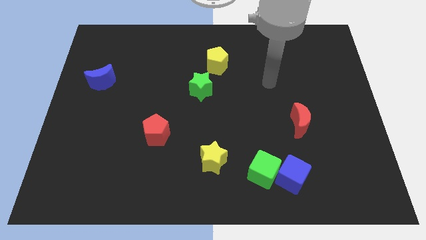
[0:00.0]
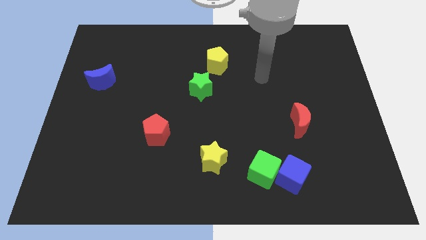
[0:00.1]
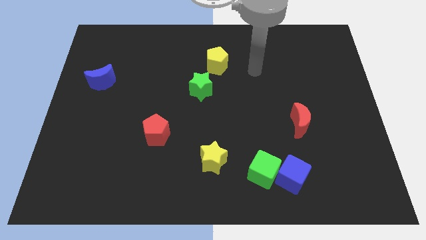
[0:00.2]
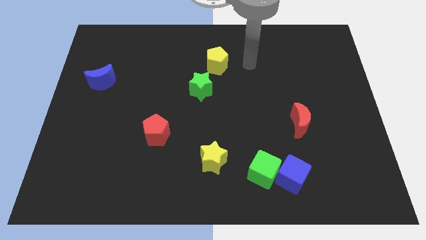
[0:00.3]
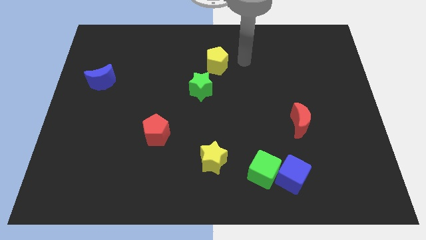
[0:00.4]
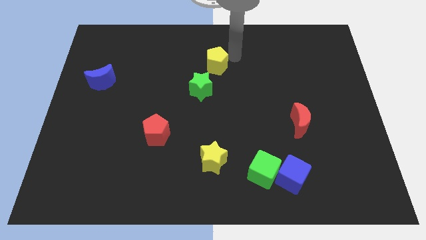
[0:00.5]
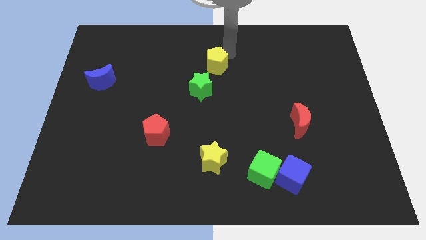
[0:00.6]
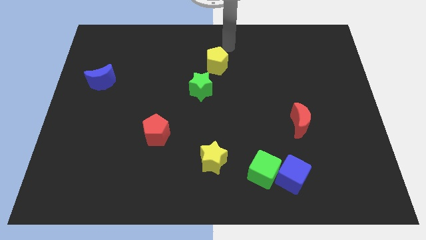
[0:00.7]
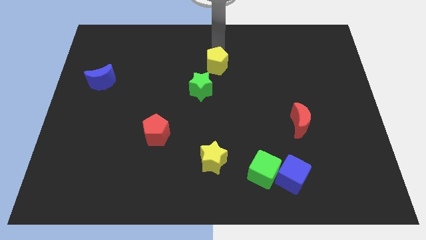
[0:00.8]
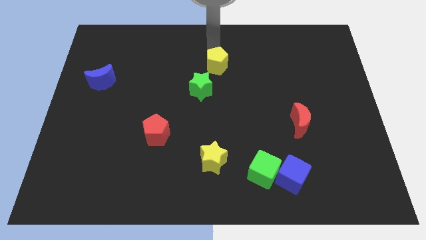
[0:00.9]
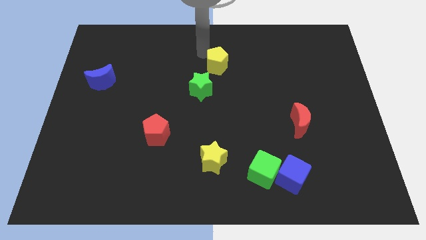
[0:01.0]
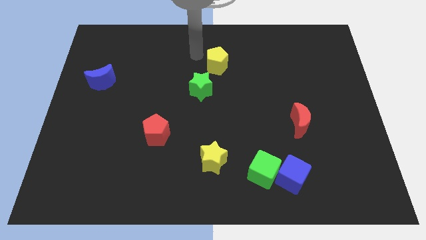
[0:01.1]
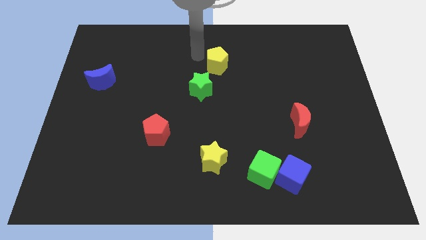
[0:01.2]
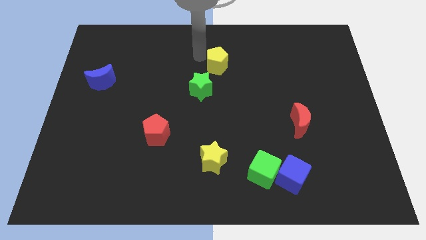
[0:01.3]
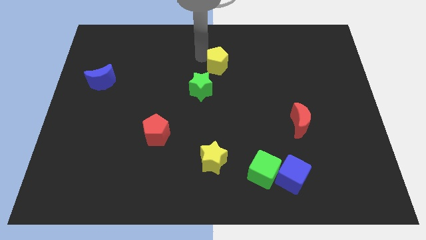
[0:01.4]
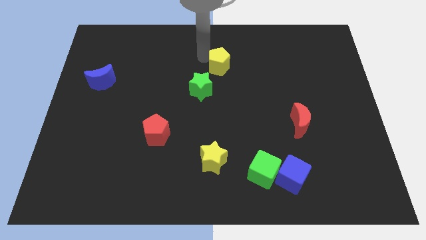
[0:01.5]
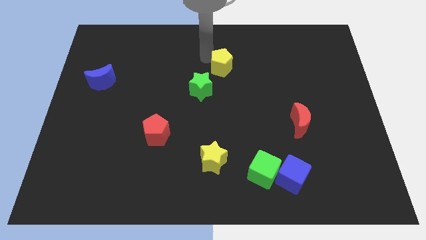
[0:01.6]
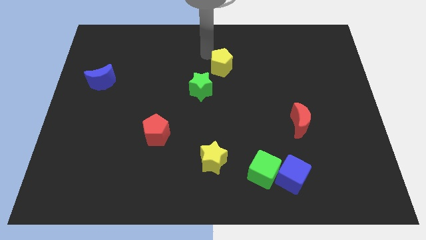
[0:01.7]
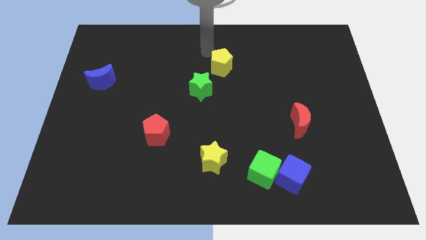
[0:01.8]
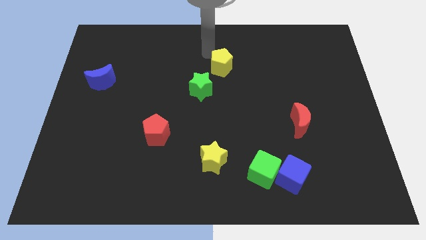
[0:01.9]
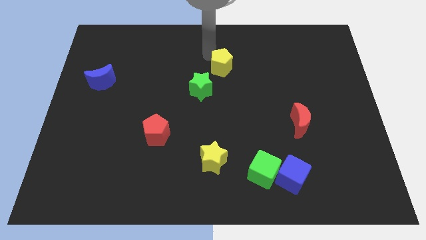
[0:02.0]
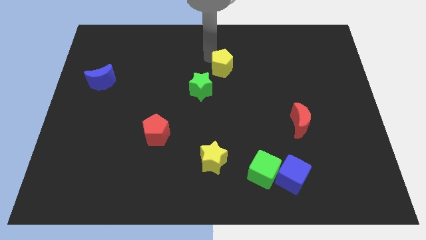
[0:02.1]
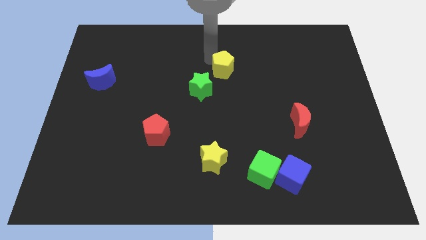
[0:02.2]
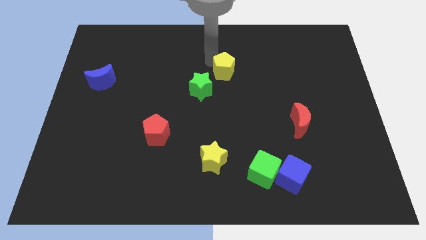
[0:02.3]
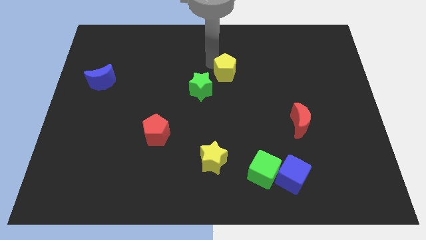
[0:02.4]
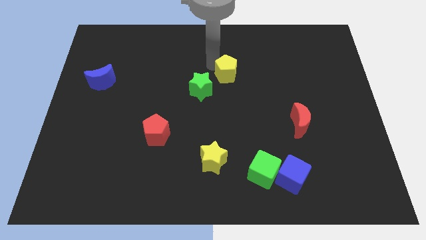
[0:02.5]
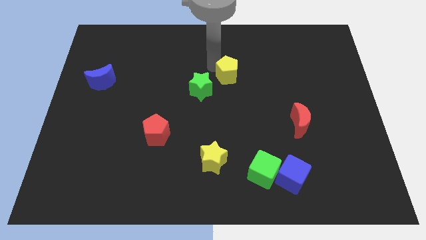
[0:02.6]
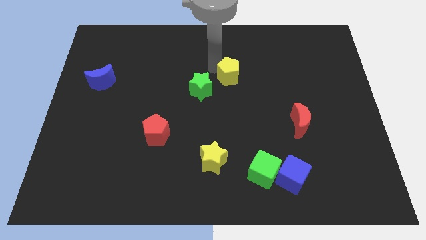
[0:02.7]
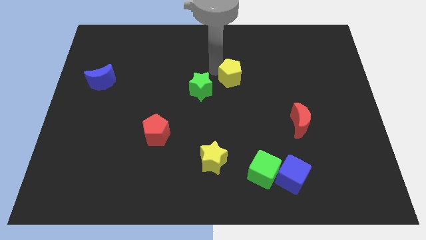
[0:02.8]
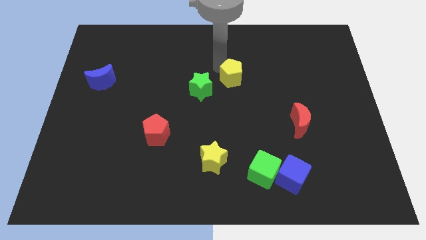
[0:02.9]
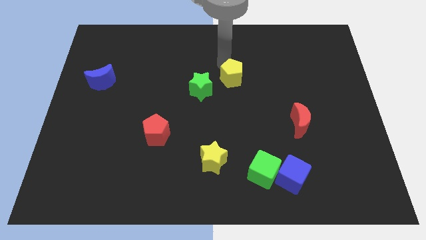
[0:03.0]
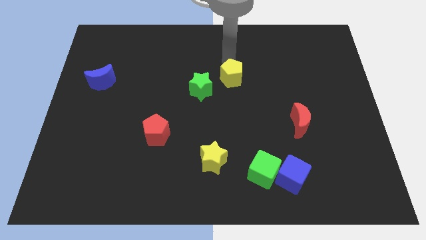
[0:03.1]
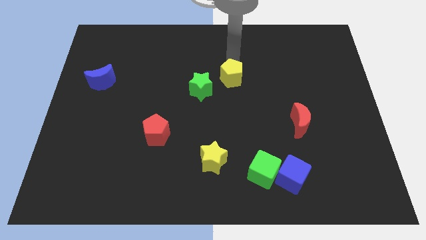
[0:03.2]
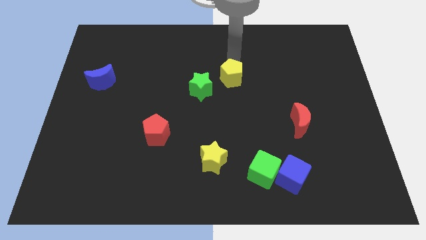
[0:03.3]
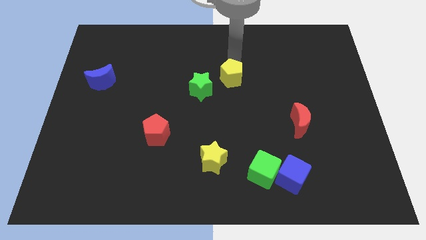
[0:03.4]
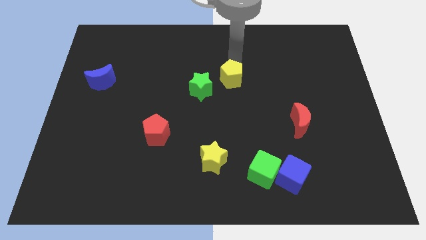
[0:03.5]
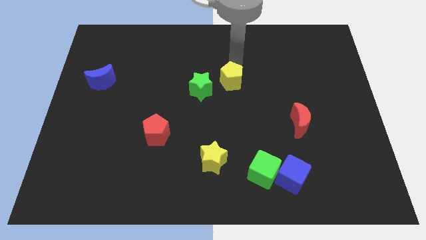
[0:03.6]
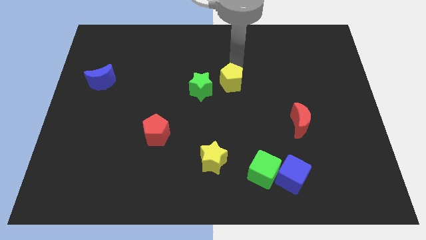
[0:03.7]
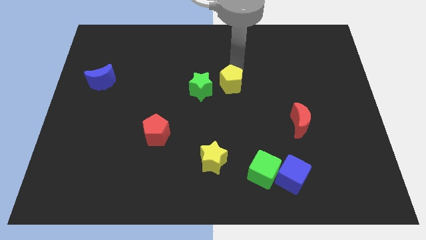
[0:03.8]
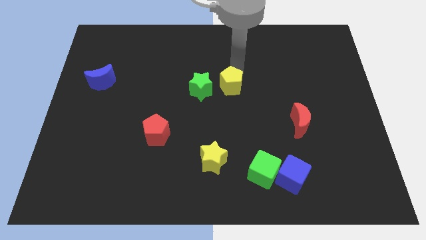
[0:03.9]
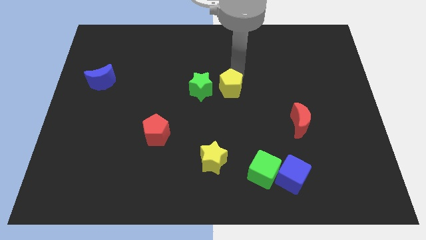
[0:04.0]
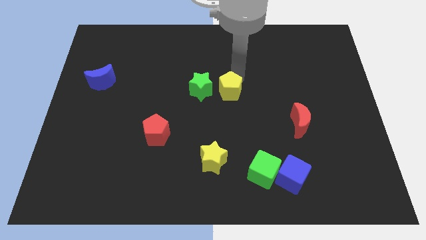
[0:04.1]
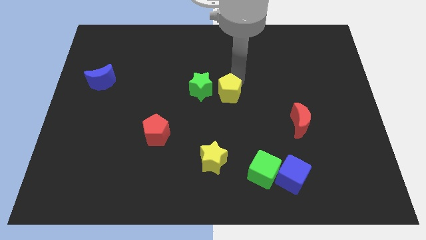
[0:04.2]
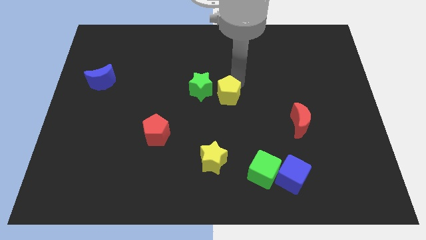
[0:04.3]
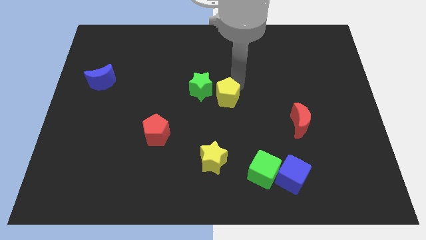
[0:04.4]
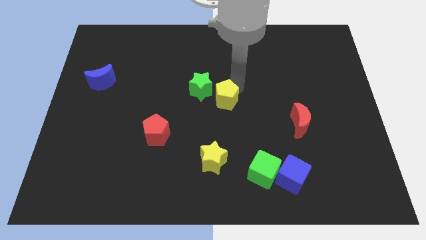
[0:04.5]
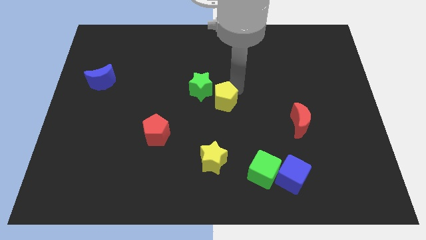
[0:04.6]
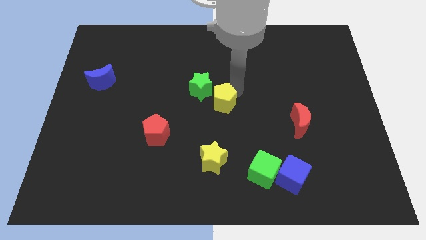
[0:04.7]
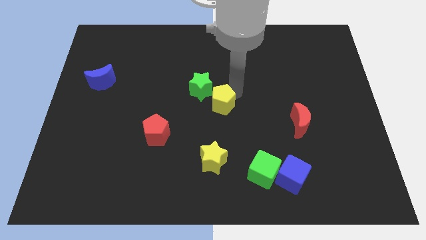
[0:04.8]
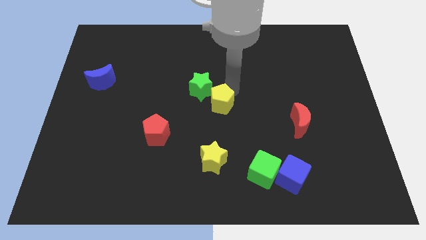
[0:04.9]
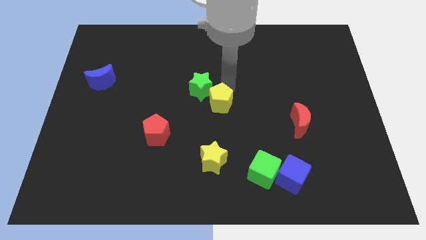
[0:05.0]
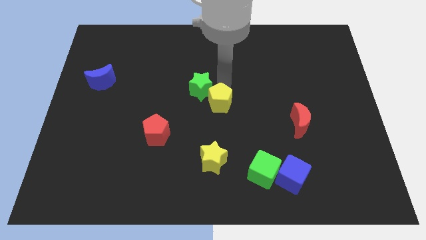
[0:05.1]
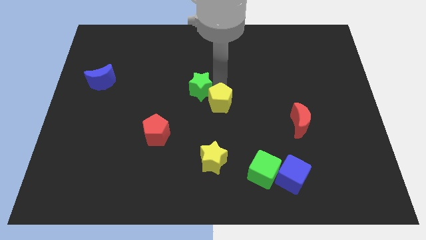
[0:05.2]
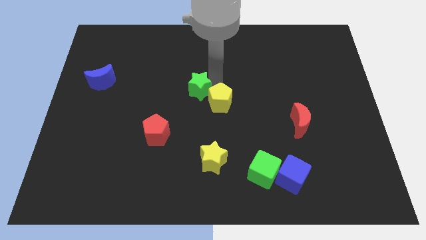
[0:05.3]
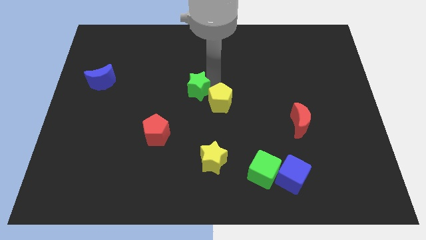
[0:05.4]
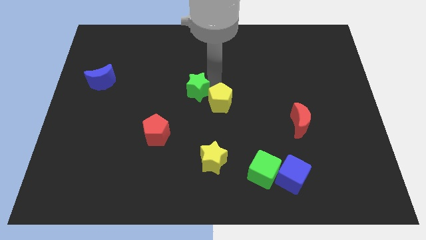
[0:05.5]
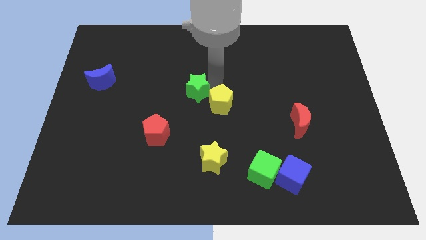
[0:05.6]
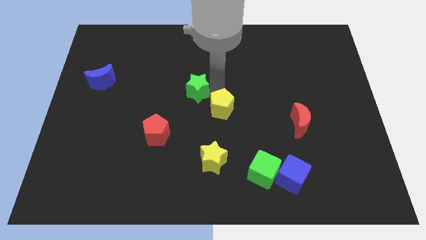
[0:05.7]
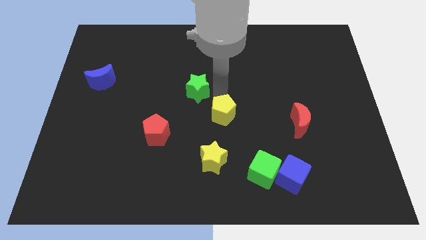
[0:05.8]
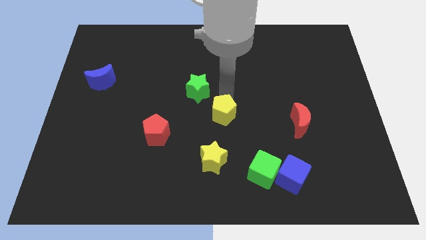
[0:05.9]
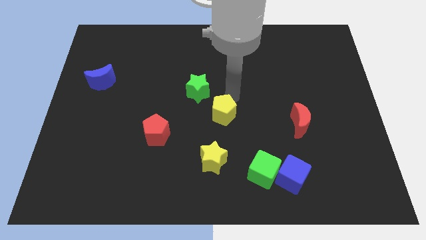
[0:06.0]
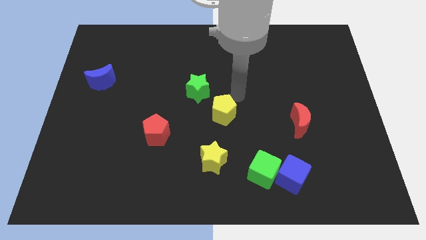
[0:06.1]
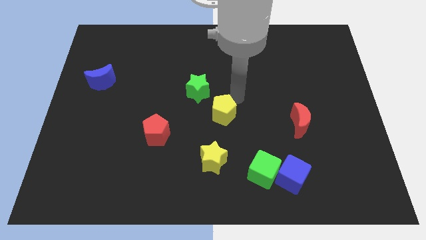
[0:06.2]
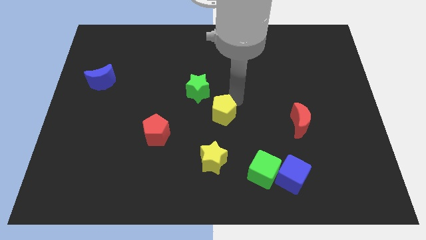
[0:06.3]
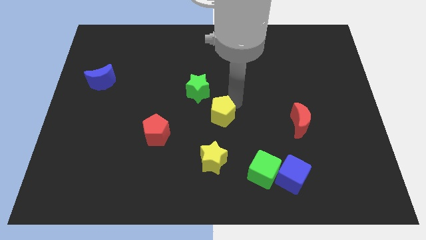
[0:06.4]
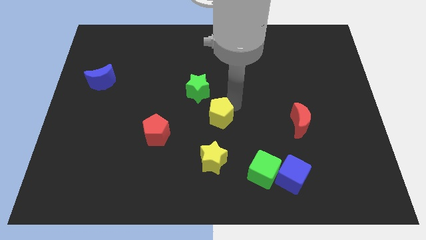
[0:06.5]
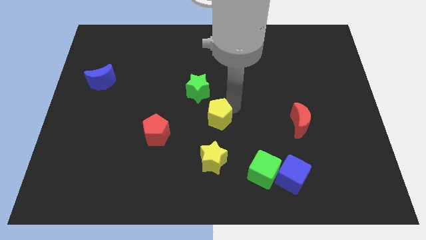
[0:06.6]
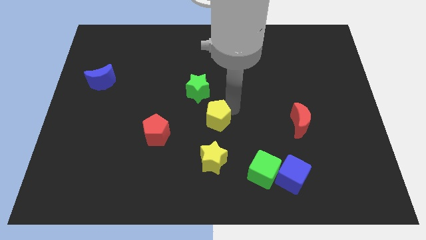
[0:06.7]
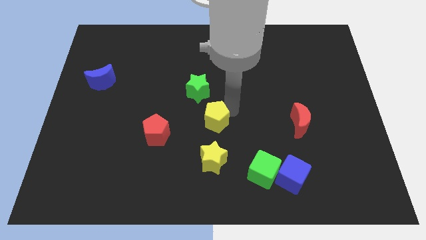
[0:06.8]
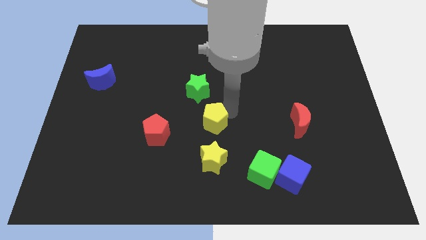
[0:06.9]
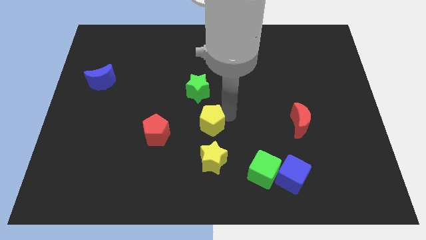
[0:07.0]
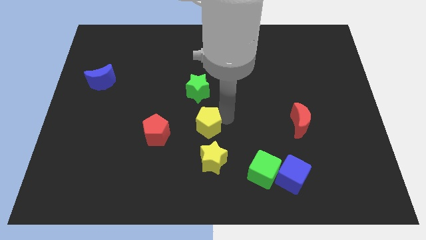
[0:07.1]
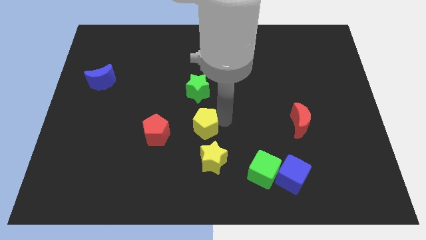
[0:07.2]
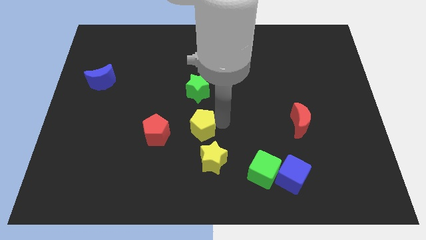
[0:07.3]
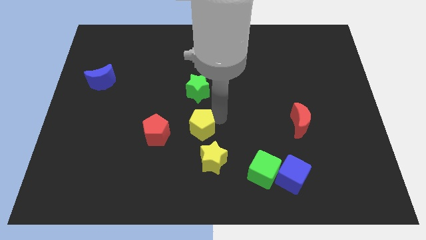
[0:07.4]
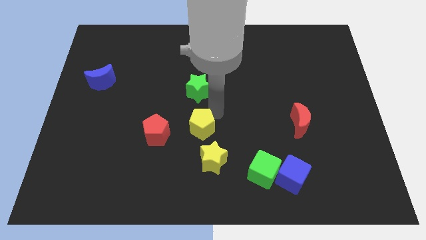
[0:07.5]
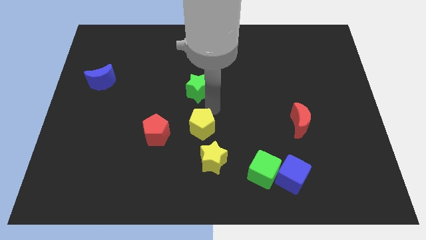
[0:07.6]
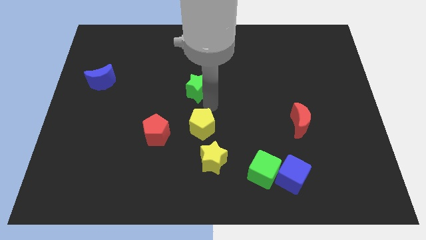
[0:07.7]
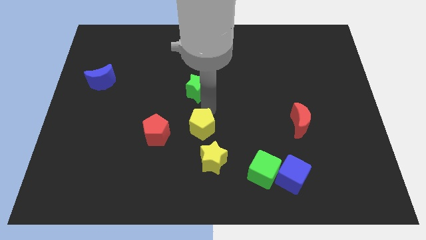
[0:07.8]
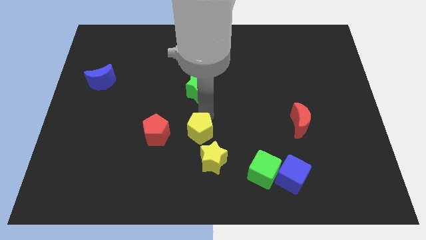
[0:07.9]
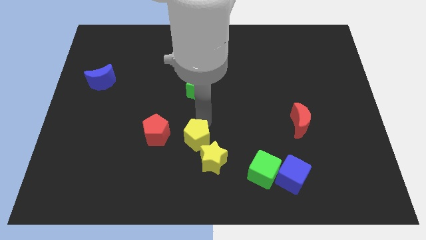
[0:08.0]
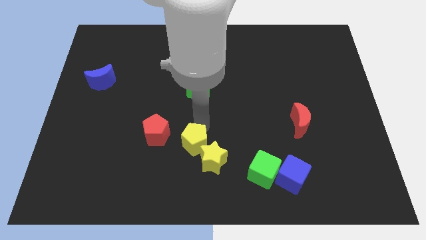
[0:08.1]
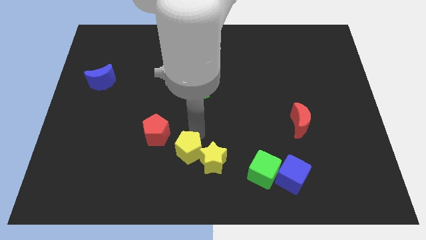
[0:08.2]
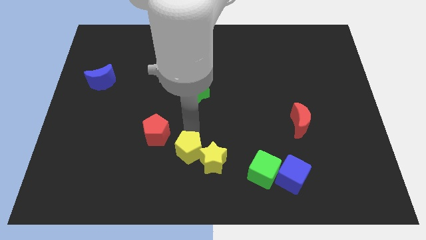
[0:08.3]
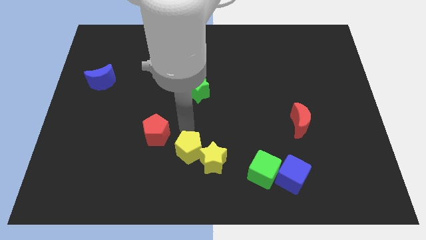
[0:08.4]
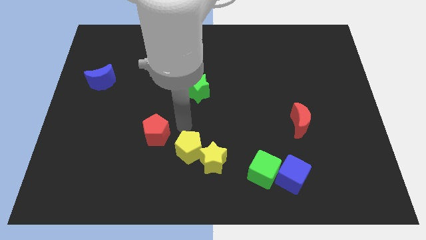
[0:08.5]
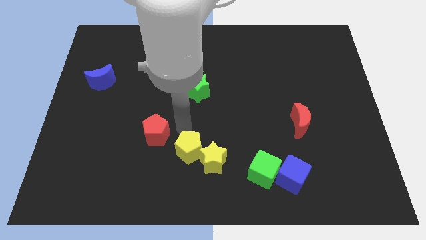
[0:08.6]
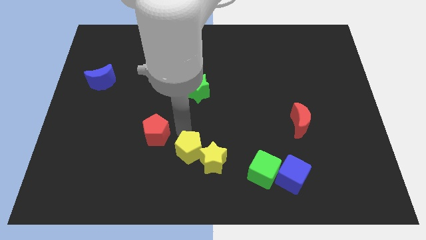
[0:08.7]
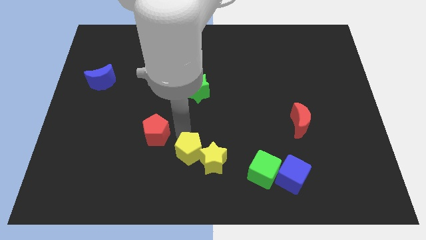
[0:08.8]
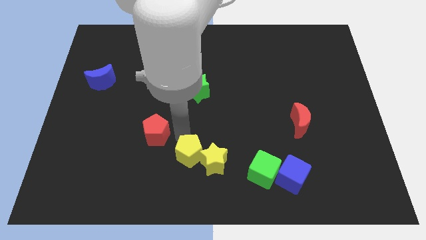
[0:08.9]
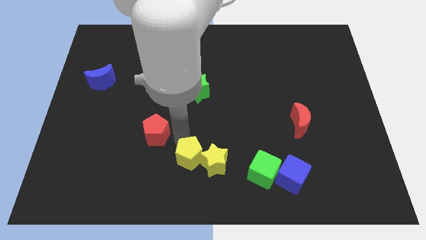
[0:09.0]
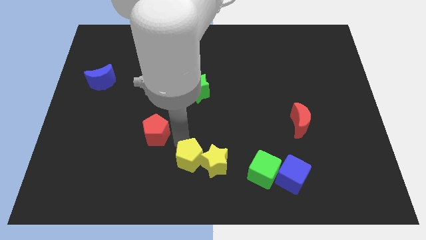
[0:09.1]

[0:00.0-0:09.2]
put the yellow pentagon to the bottom side
